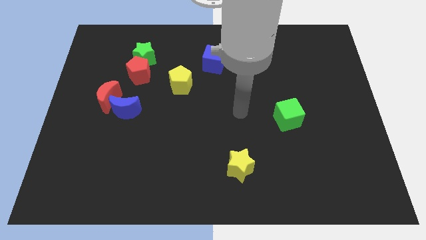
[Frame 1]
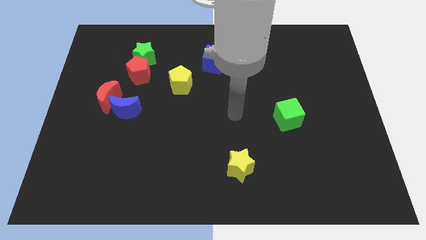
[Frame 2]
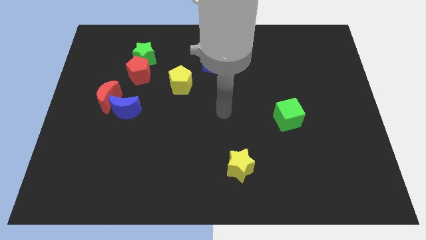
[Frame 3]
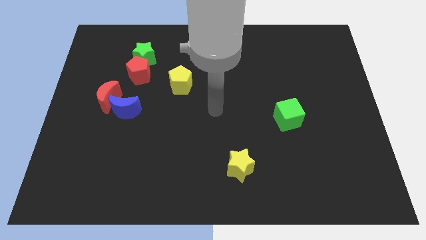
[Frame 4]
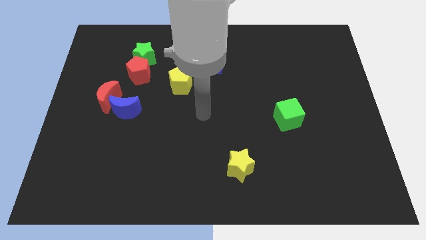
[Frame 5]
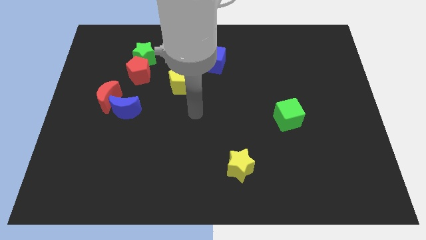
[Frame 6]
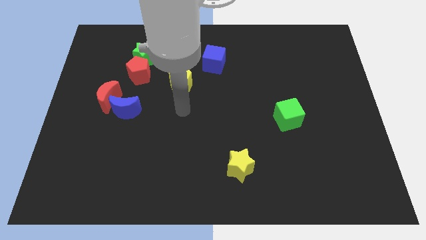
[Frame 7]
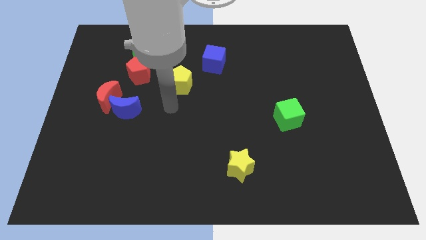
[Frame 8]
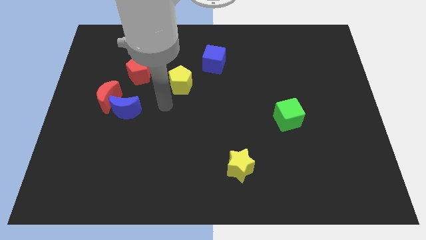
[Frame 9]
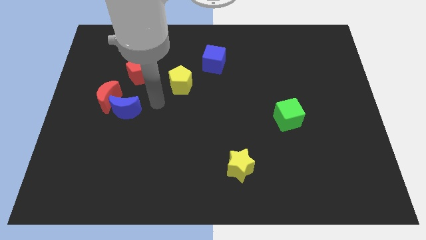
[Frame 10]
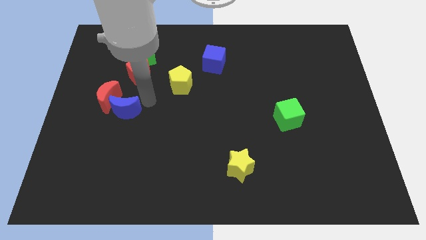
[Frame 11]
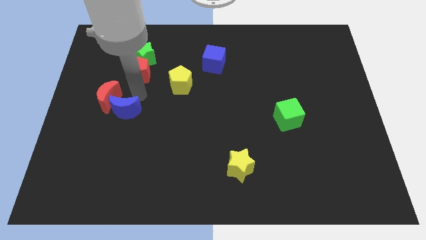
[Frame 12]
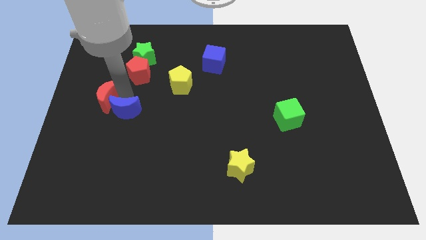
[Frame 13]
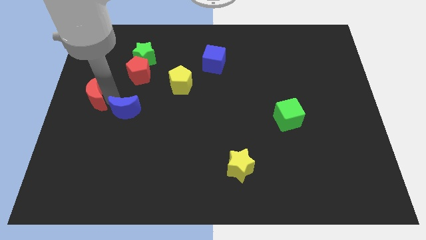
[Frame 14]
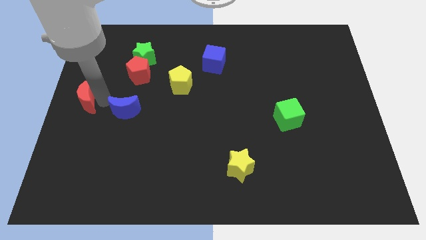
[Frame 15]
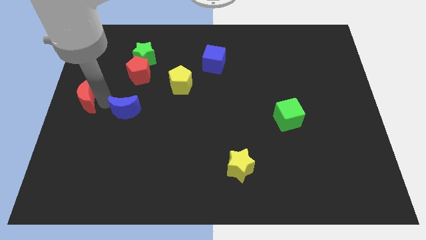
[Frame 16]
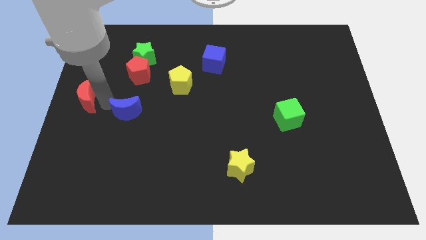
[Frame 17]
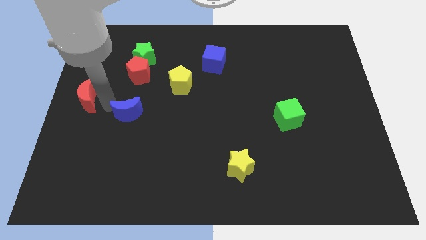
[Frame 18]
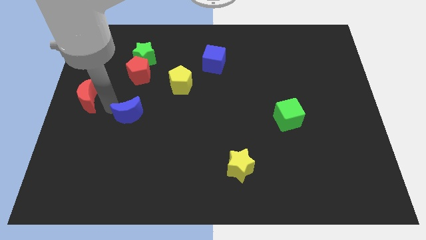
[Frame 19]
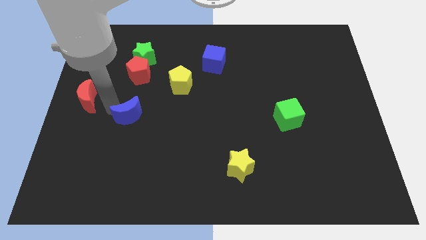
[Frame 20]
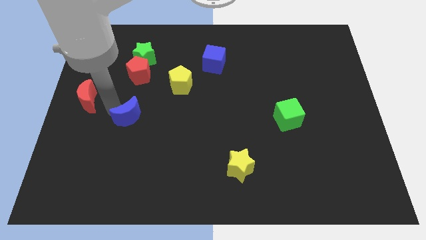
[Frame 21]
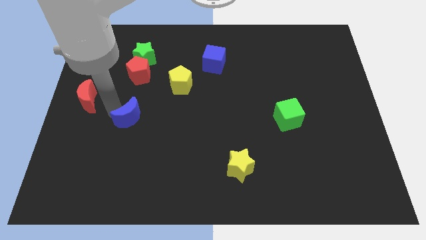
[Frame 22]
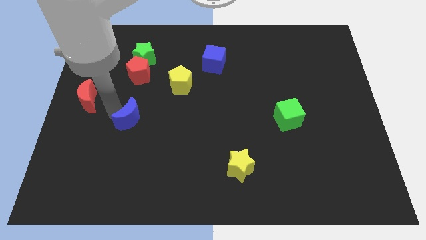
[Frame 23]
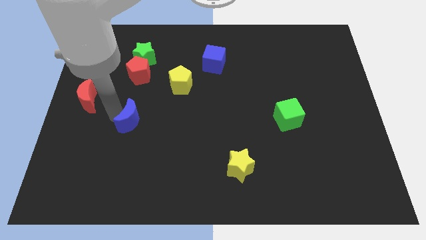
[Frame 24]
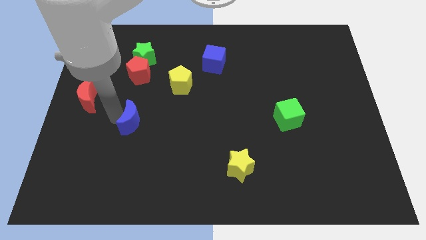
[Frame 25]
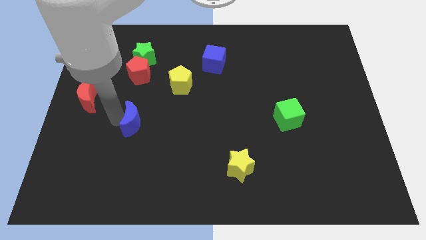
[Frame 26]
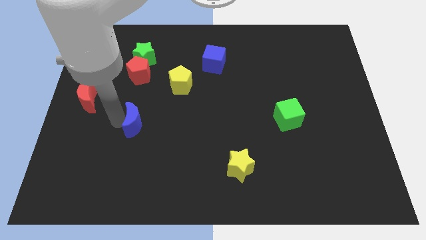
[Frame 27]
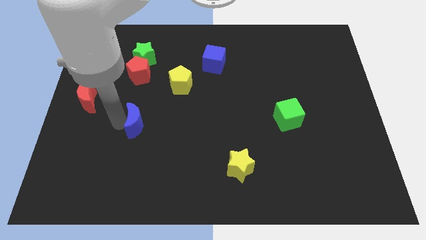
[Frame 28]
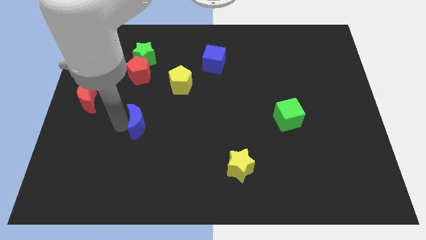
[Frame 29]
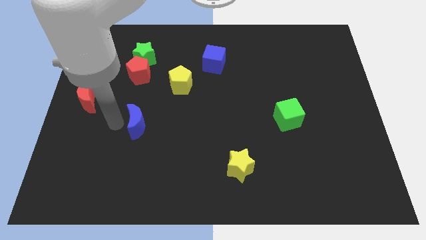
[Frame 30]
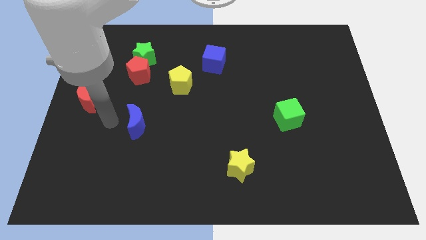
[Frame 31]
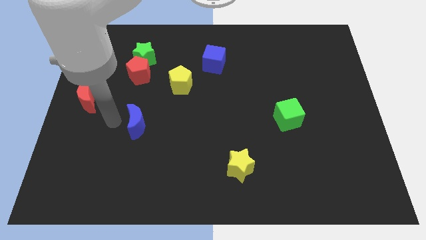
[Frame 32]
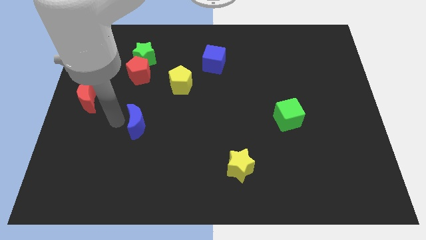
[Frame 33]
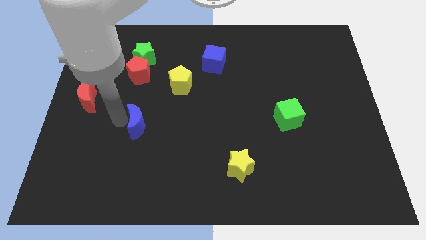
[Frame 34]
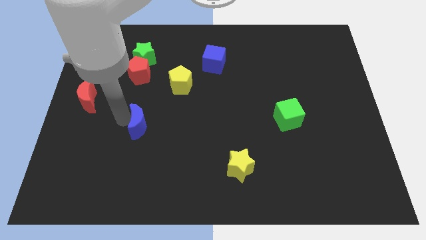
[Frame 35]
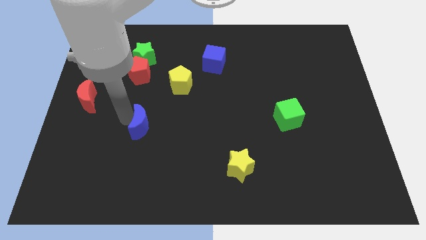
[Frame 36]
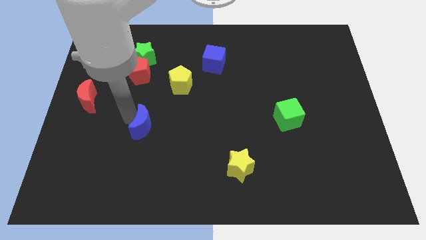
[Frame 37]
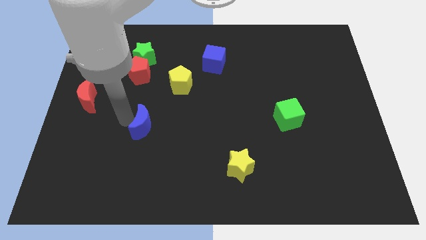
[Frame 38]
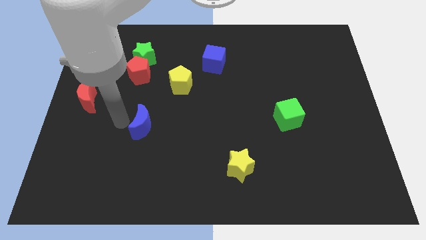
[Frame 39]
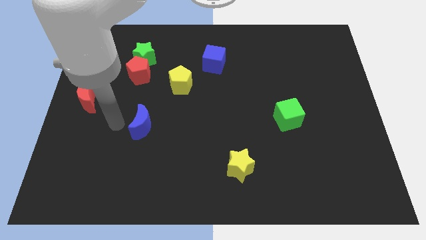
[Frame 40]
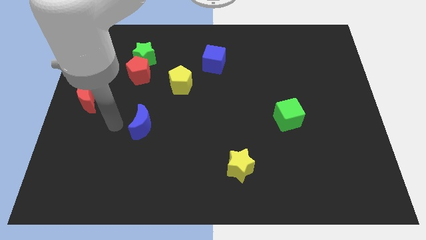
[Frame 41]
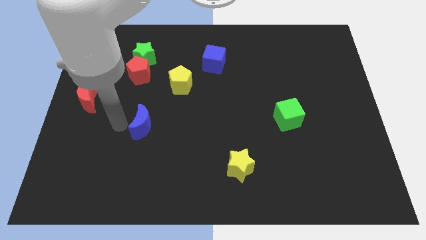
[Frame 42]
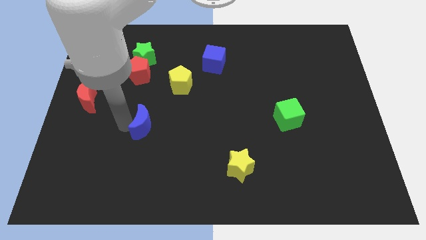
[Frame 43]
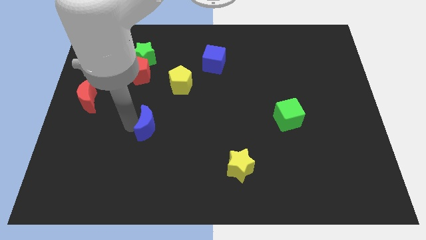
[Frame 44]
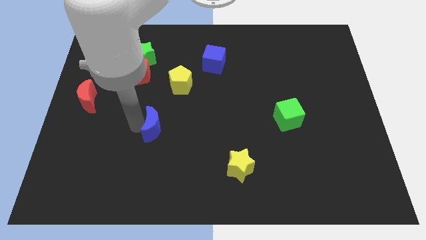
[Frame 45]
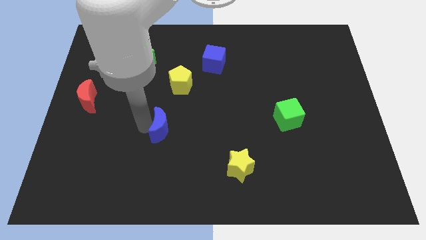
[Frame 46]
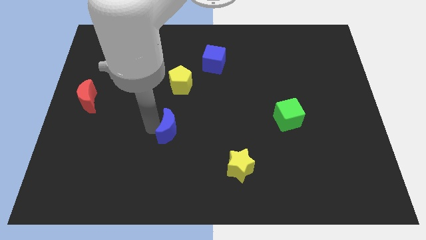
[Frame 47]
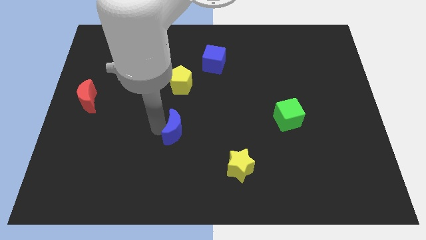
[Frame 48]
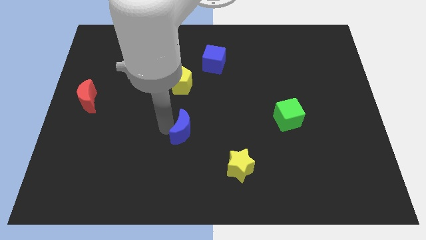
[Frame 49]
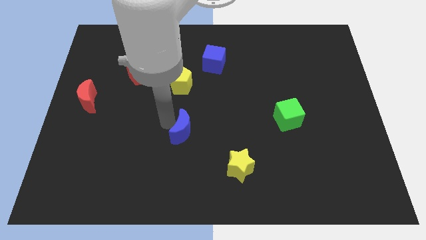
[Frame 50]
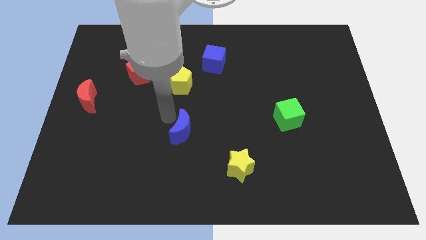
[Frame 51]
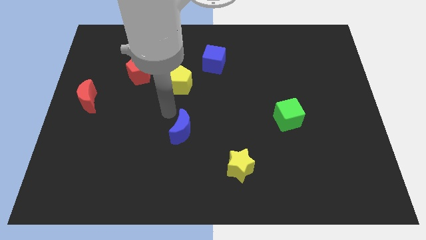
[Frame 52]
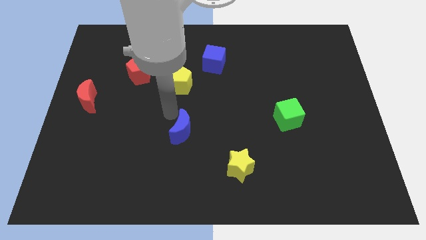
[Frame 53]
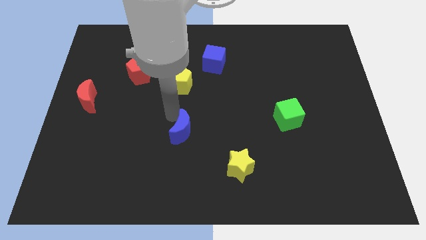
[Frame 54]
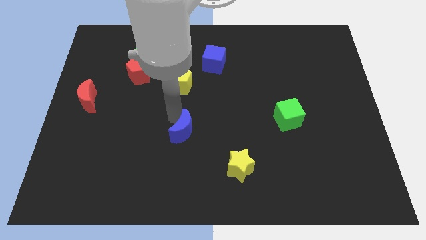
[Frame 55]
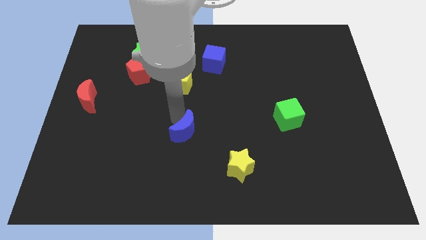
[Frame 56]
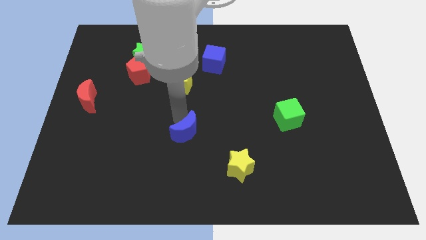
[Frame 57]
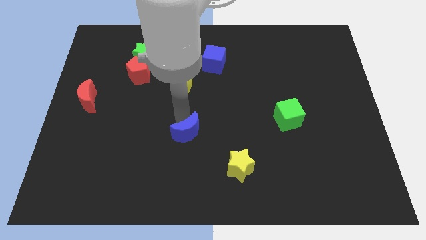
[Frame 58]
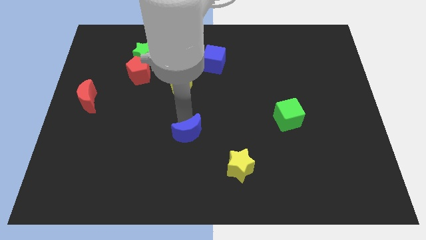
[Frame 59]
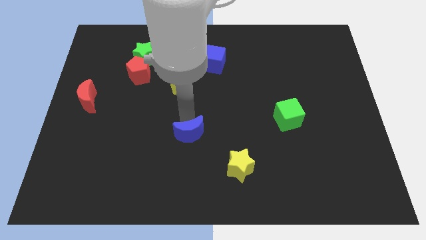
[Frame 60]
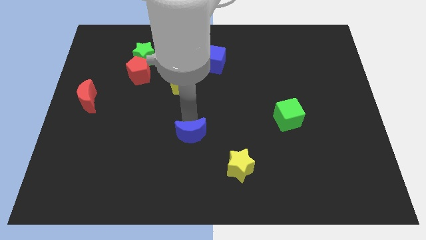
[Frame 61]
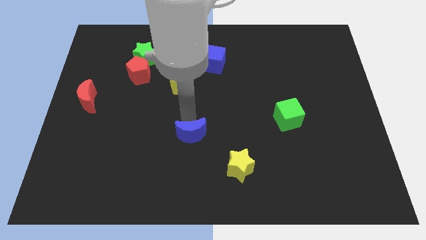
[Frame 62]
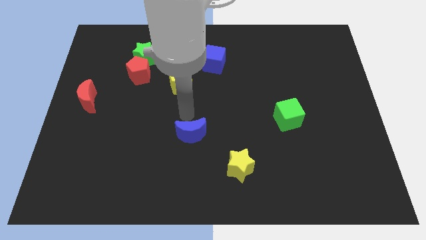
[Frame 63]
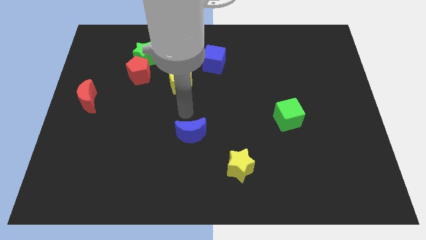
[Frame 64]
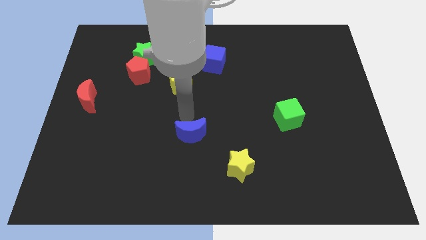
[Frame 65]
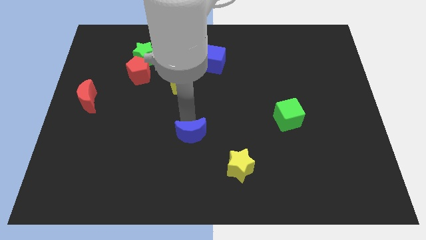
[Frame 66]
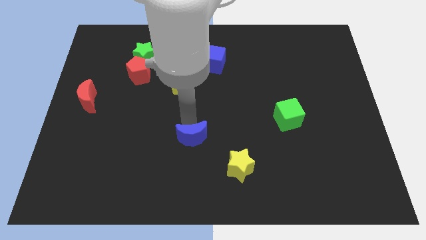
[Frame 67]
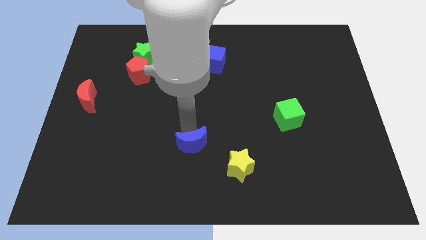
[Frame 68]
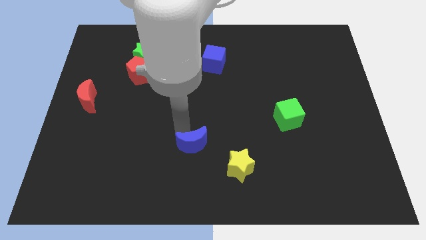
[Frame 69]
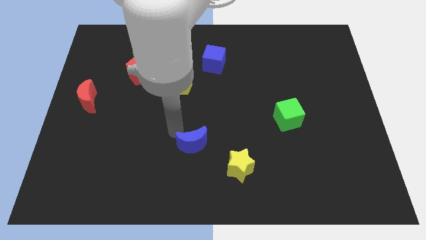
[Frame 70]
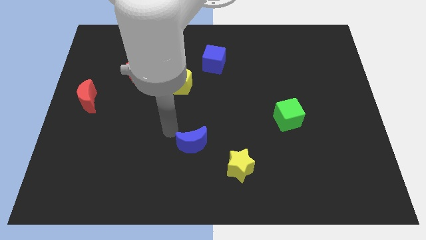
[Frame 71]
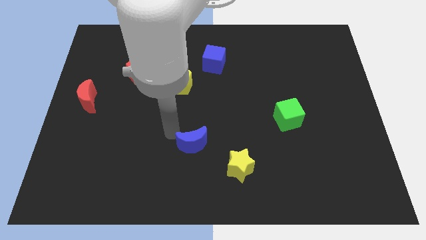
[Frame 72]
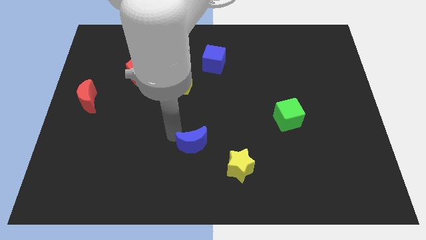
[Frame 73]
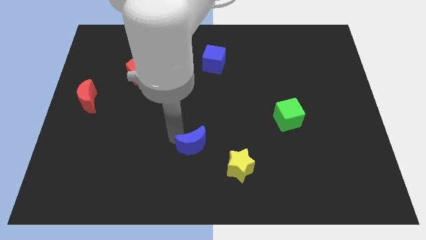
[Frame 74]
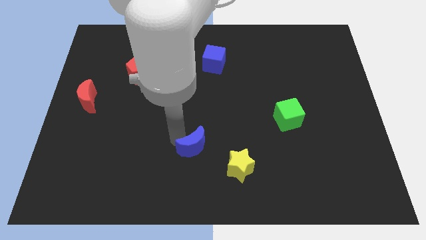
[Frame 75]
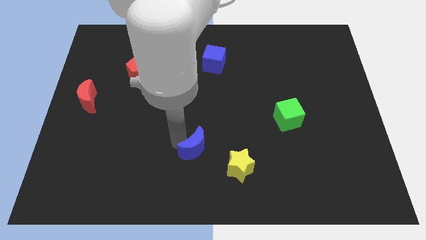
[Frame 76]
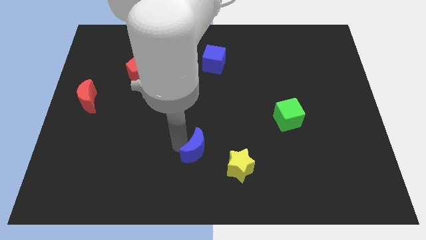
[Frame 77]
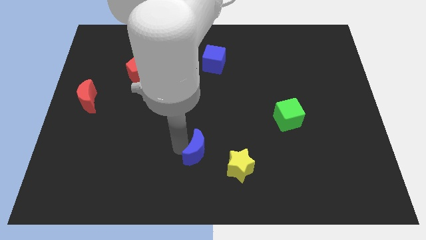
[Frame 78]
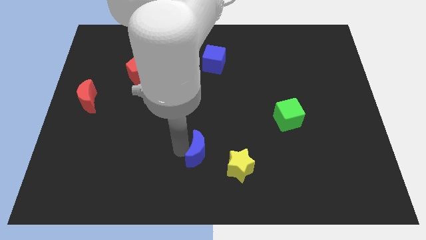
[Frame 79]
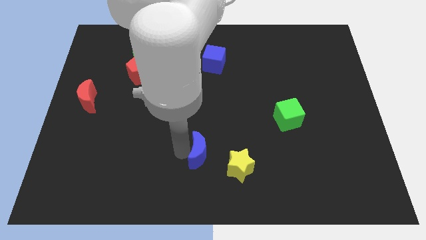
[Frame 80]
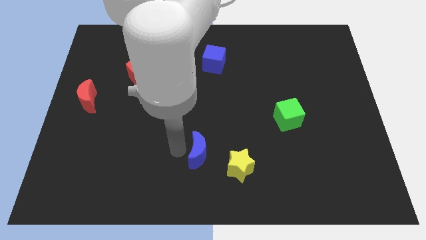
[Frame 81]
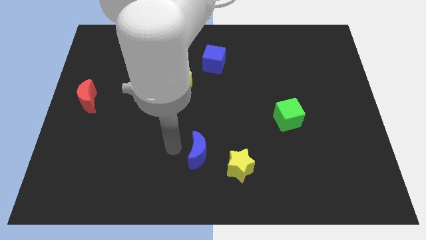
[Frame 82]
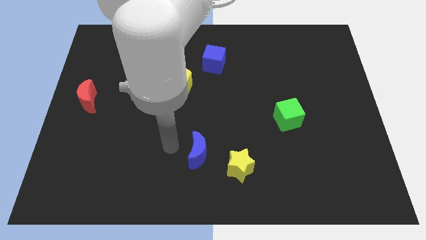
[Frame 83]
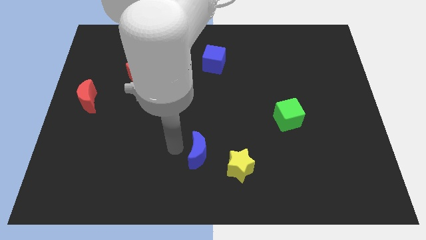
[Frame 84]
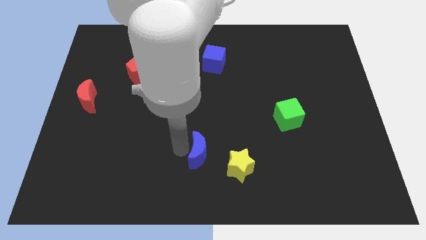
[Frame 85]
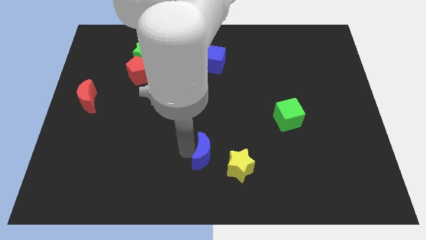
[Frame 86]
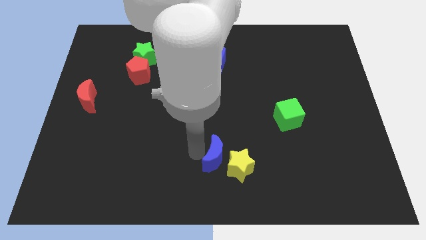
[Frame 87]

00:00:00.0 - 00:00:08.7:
move the blue moon next to the yellow star
